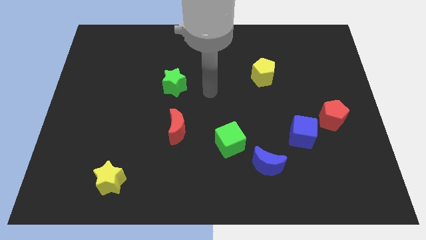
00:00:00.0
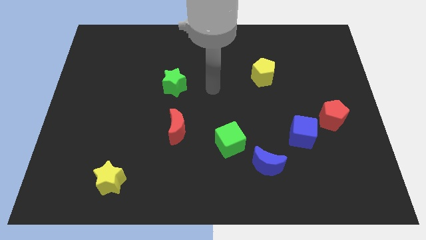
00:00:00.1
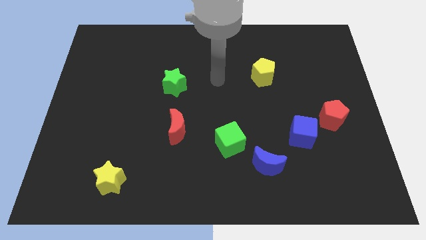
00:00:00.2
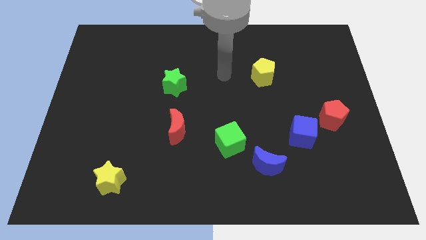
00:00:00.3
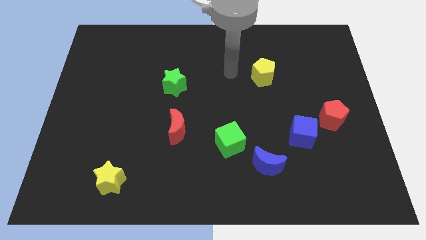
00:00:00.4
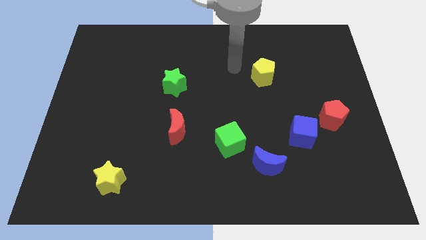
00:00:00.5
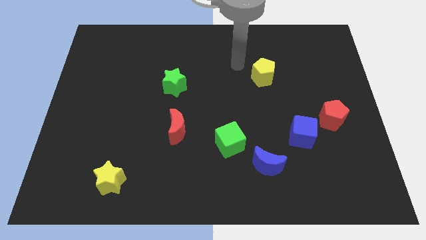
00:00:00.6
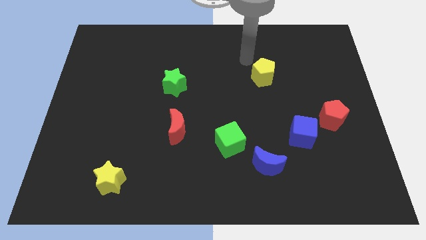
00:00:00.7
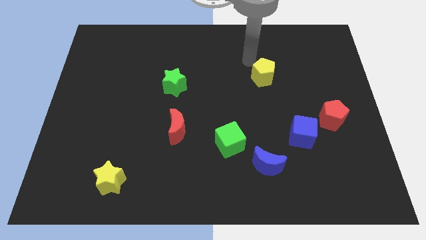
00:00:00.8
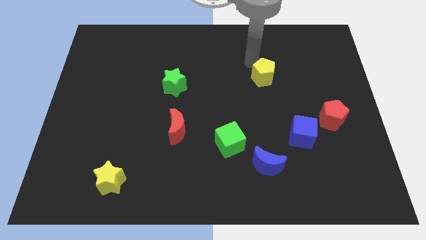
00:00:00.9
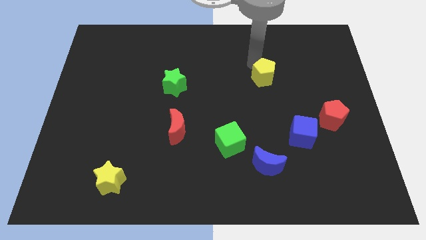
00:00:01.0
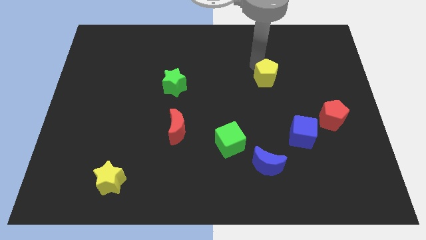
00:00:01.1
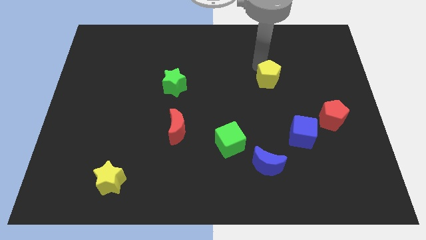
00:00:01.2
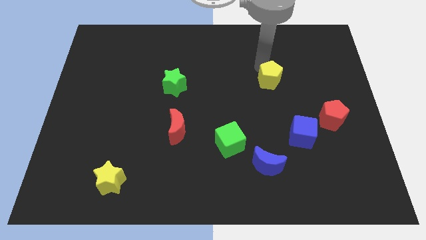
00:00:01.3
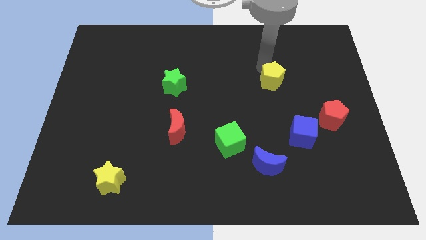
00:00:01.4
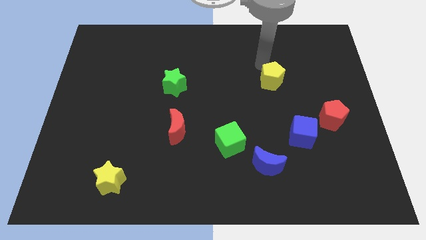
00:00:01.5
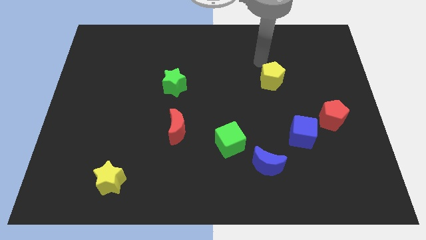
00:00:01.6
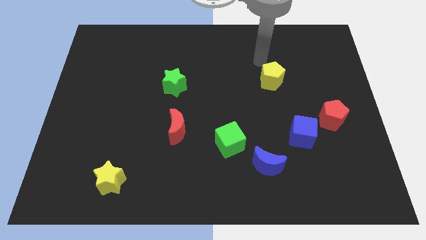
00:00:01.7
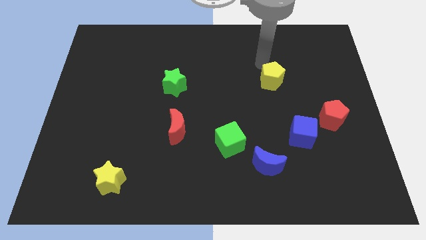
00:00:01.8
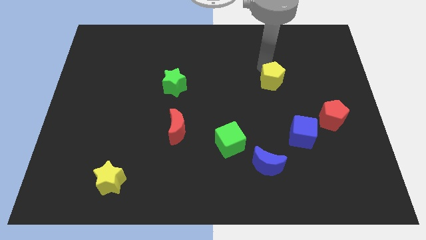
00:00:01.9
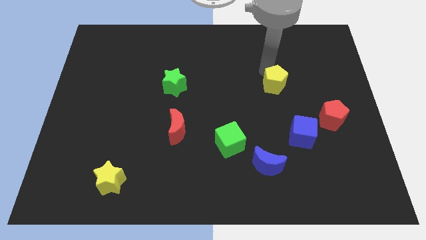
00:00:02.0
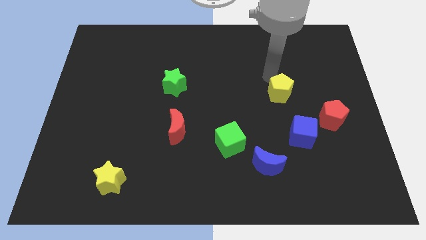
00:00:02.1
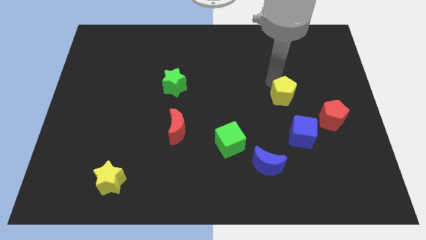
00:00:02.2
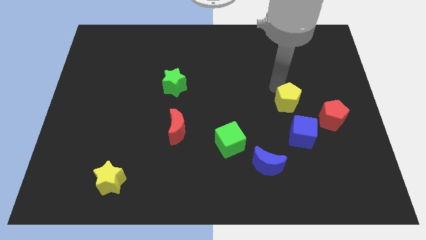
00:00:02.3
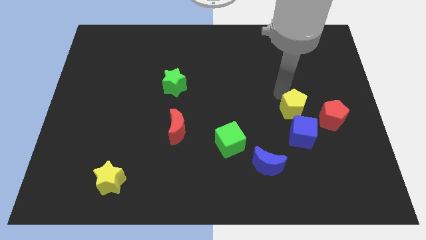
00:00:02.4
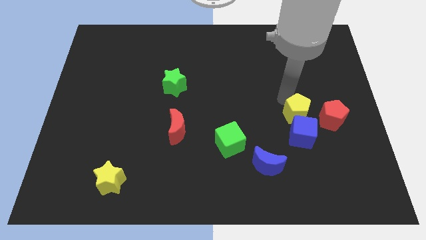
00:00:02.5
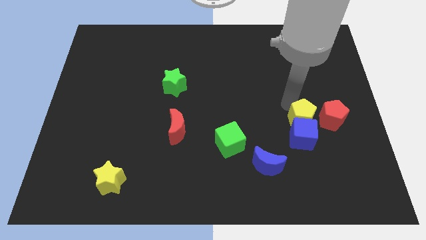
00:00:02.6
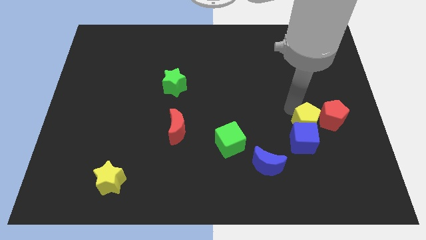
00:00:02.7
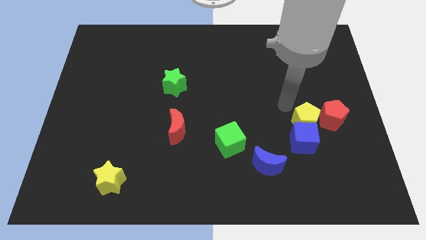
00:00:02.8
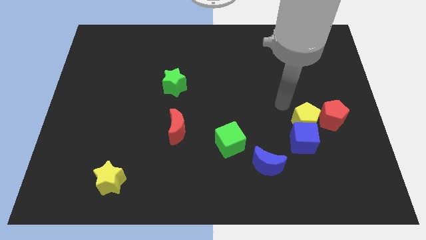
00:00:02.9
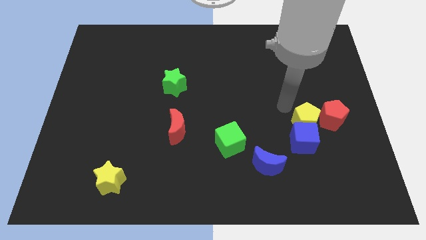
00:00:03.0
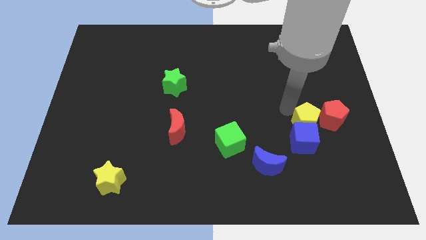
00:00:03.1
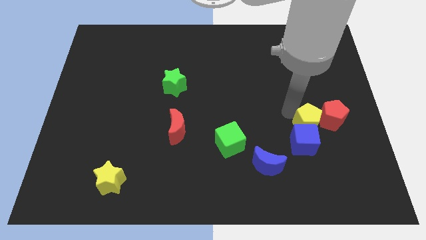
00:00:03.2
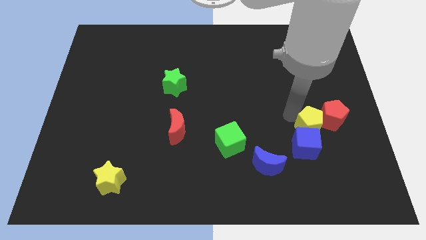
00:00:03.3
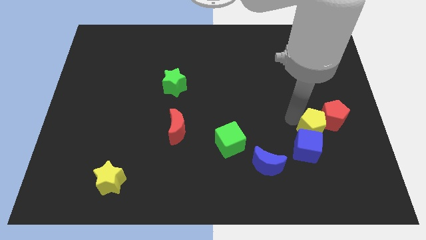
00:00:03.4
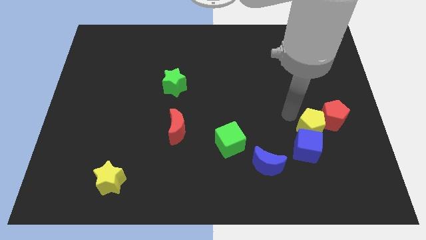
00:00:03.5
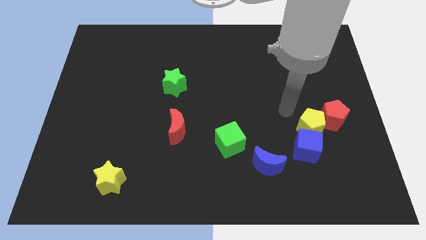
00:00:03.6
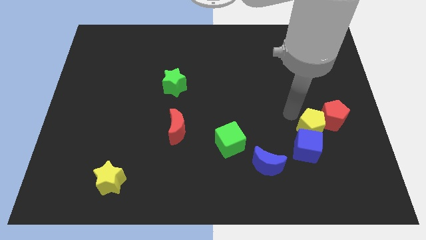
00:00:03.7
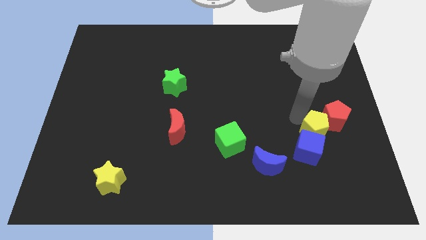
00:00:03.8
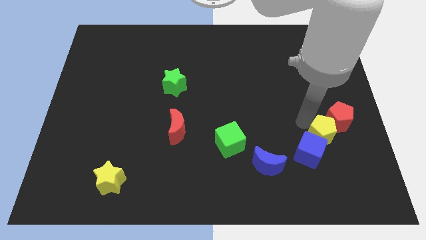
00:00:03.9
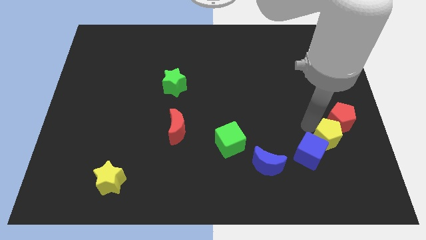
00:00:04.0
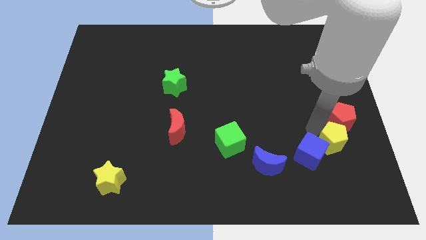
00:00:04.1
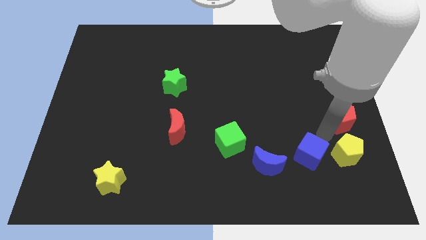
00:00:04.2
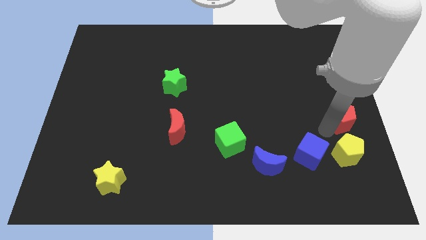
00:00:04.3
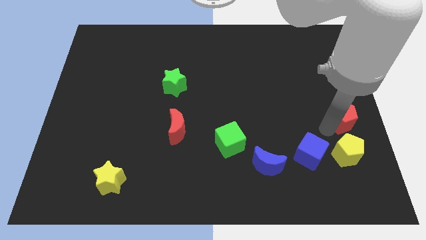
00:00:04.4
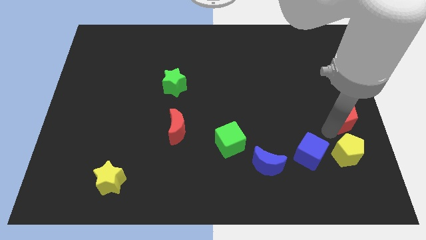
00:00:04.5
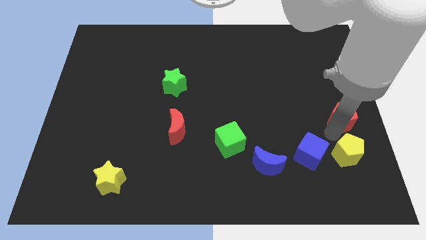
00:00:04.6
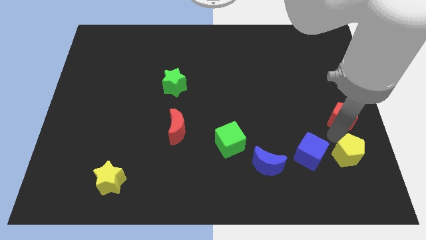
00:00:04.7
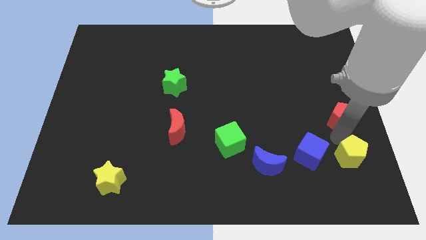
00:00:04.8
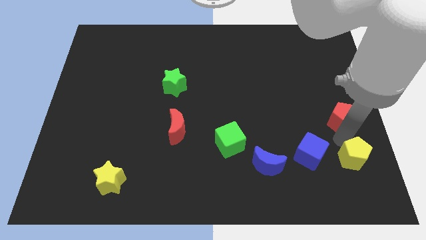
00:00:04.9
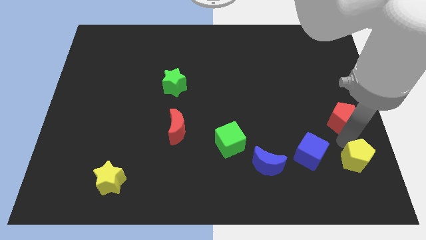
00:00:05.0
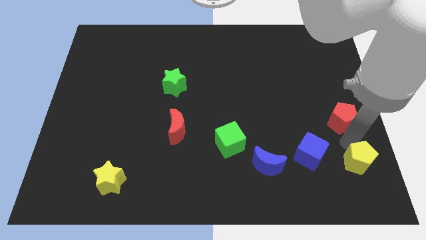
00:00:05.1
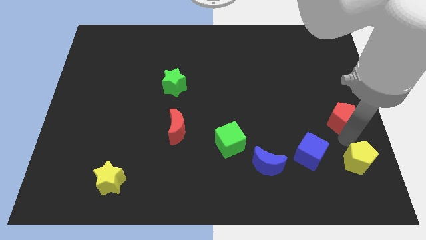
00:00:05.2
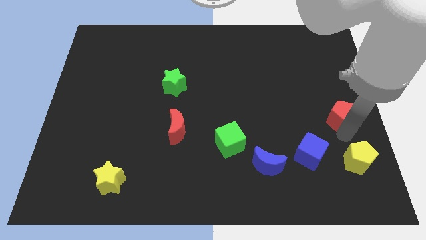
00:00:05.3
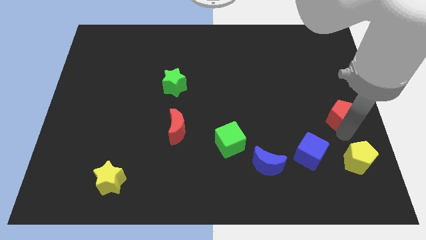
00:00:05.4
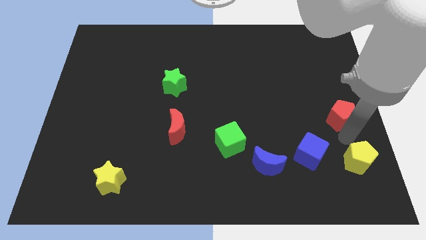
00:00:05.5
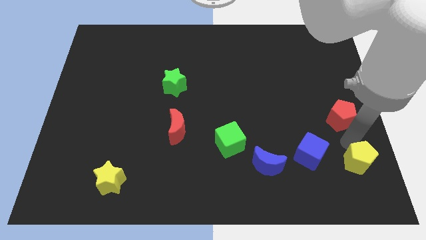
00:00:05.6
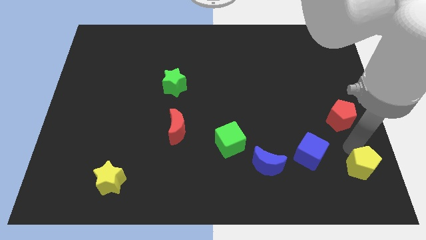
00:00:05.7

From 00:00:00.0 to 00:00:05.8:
put the yellow pentagon to the bottom right of the board

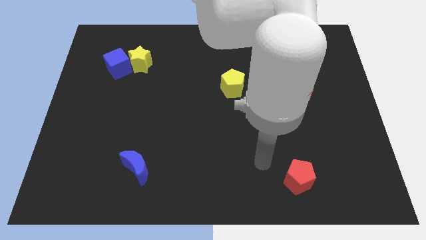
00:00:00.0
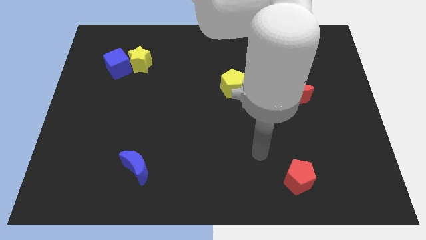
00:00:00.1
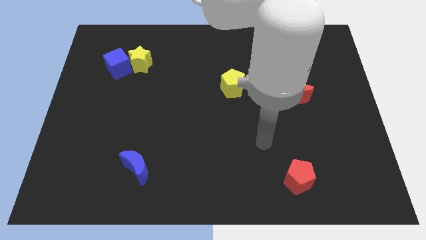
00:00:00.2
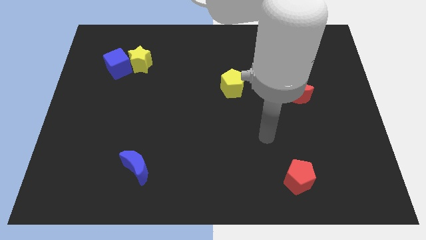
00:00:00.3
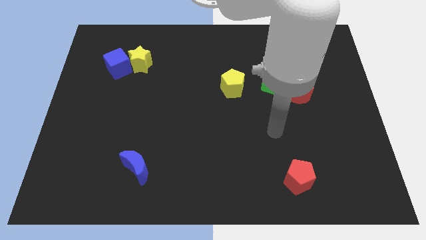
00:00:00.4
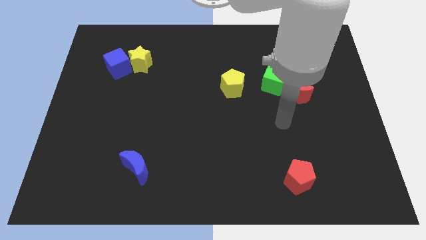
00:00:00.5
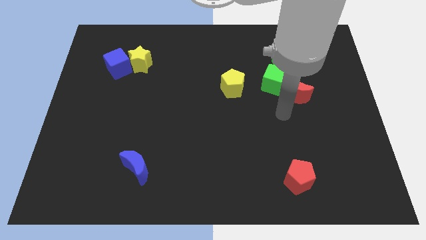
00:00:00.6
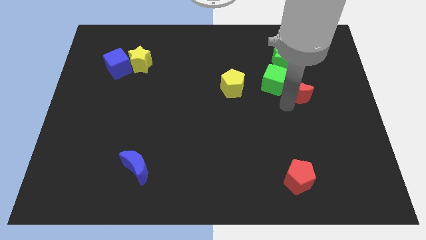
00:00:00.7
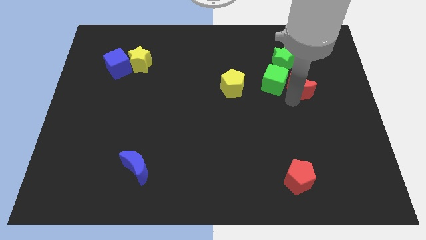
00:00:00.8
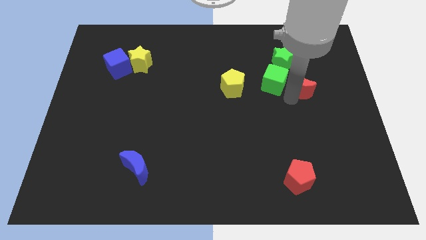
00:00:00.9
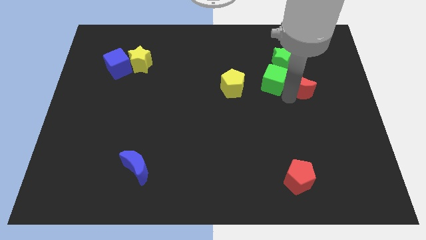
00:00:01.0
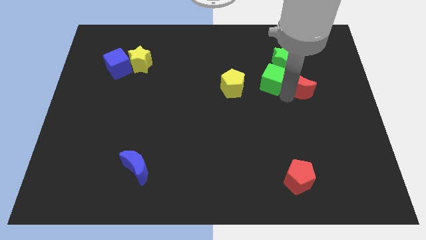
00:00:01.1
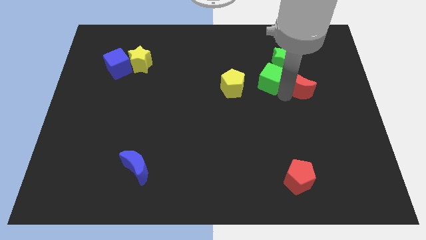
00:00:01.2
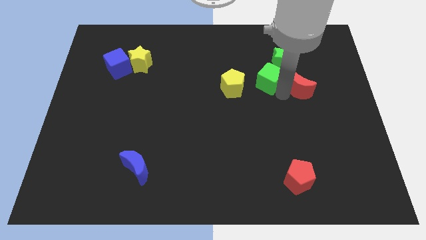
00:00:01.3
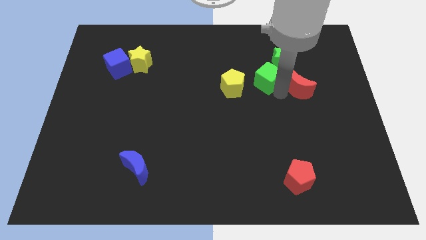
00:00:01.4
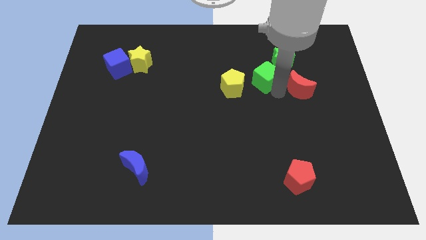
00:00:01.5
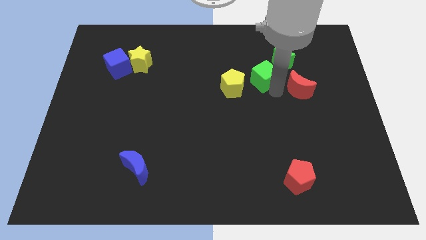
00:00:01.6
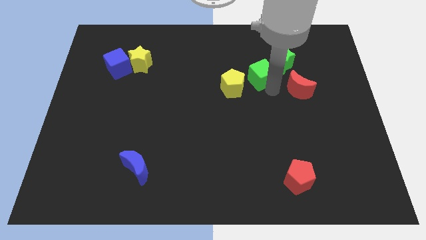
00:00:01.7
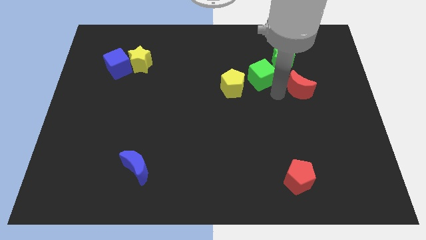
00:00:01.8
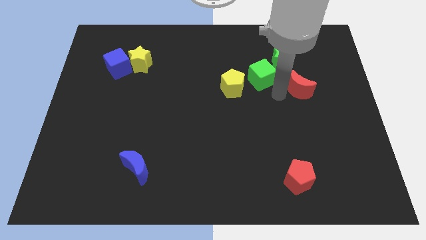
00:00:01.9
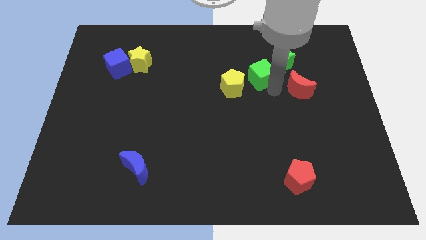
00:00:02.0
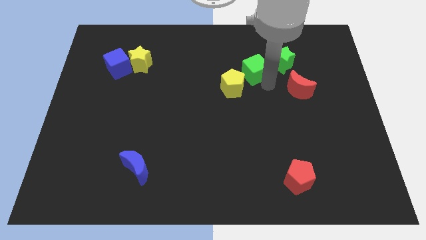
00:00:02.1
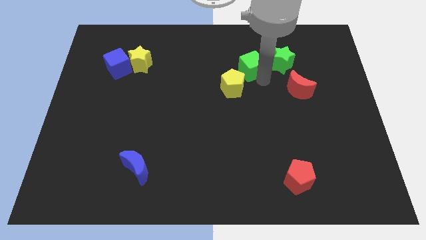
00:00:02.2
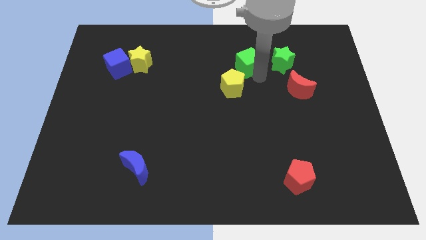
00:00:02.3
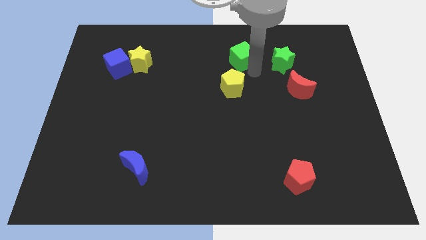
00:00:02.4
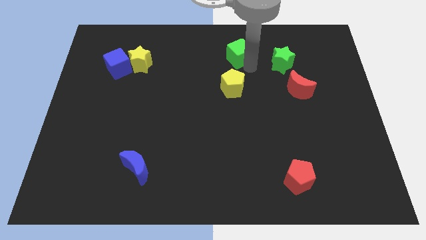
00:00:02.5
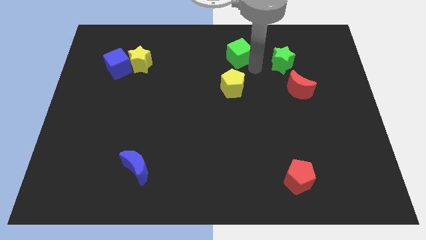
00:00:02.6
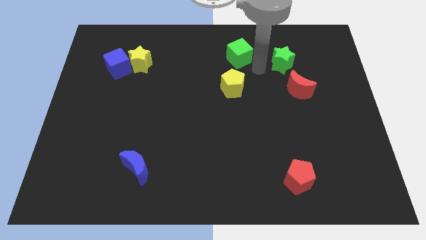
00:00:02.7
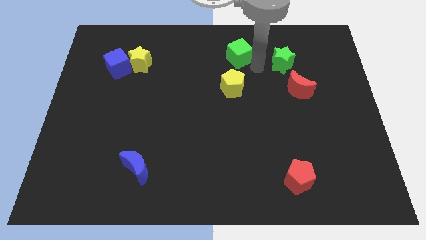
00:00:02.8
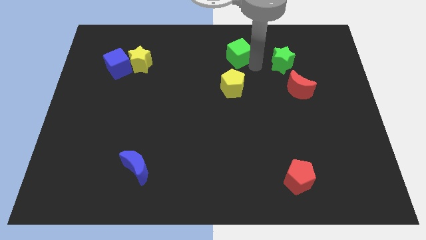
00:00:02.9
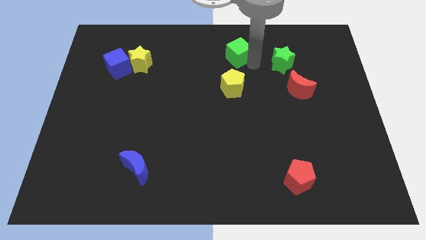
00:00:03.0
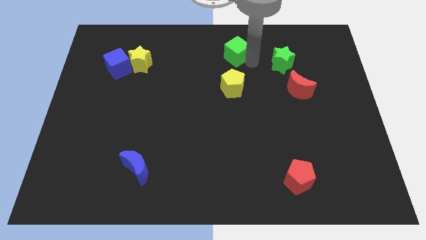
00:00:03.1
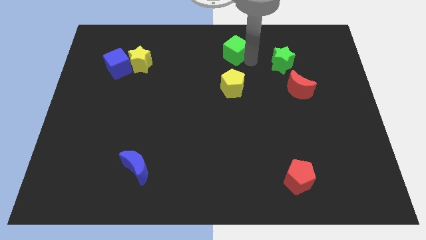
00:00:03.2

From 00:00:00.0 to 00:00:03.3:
push the green cube to the towards your base
